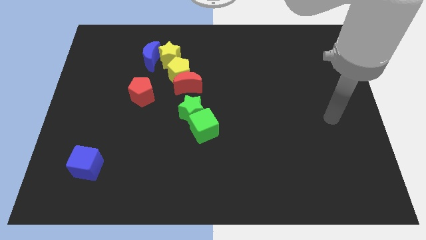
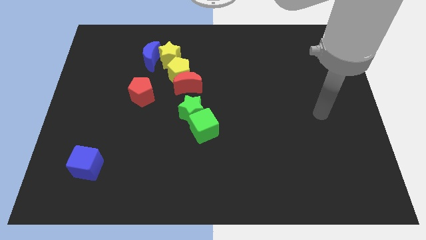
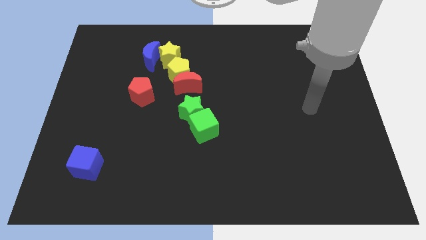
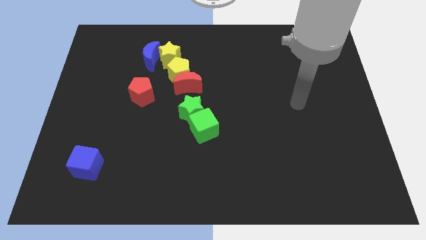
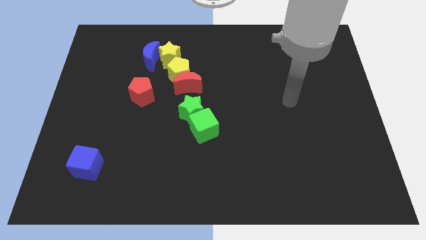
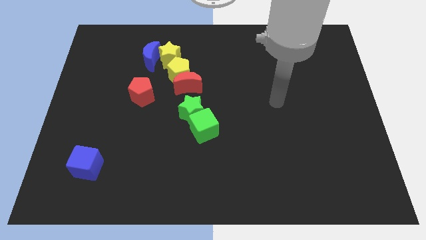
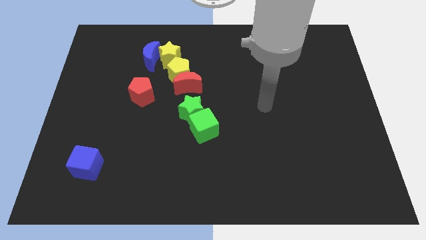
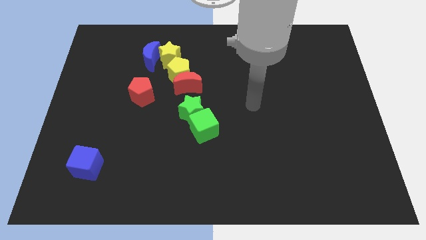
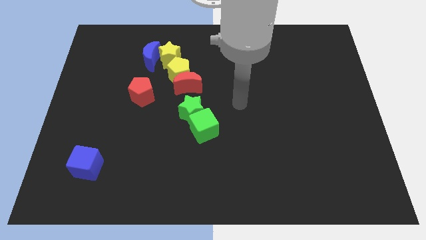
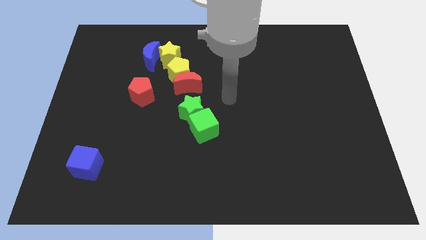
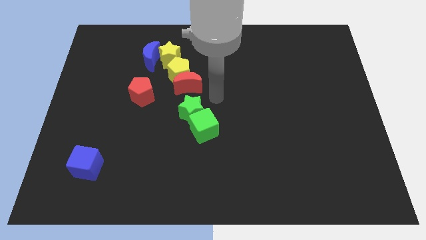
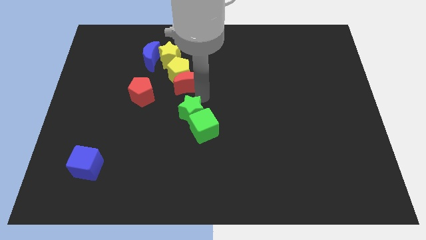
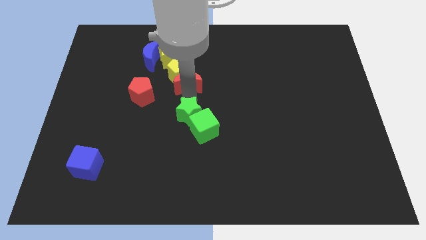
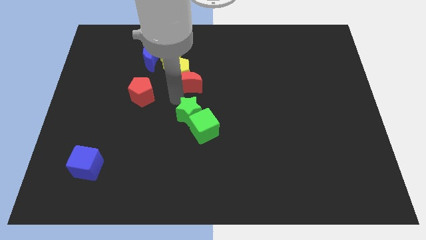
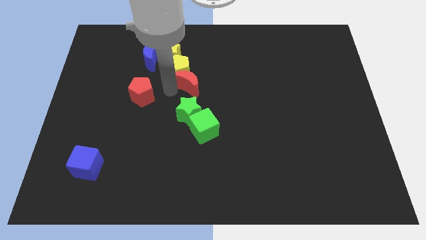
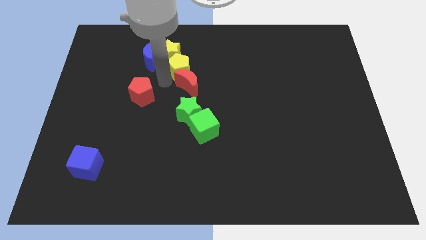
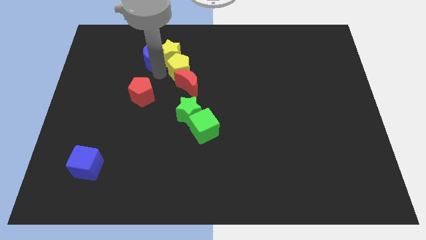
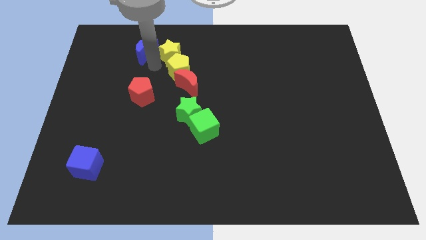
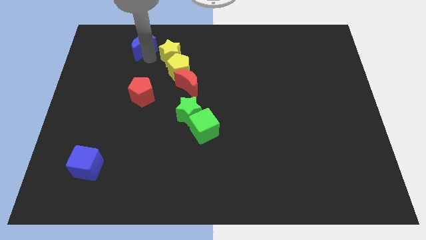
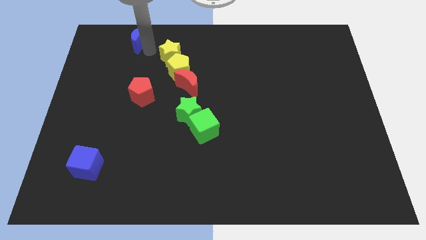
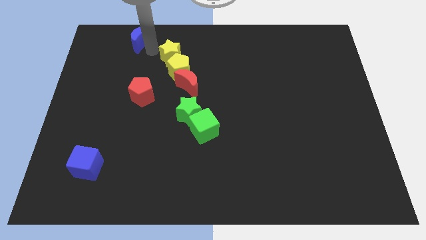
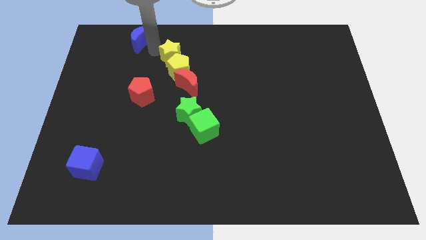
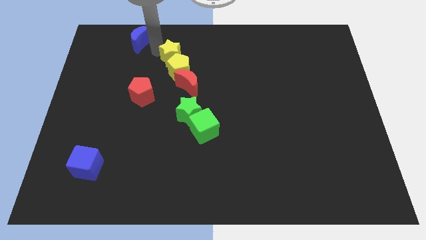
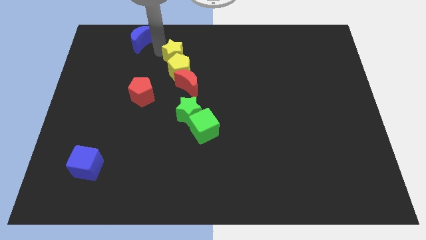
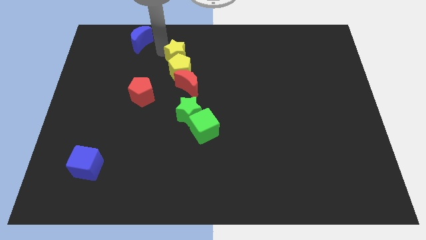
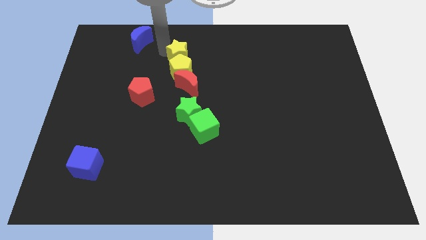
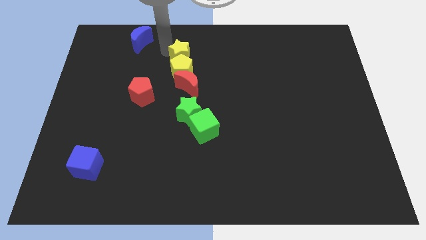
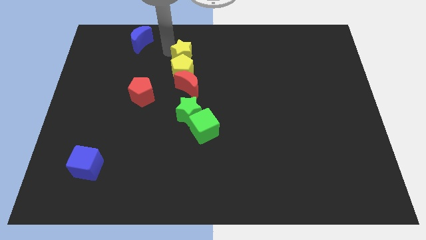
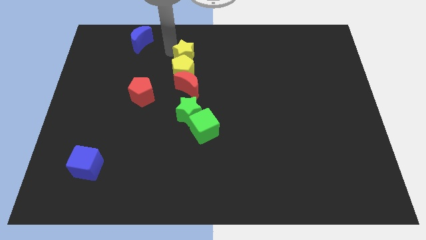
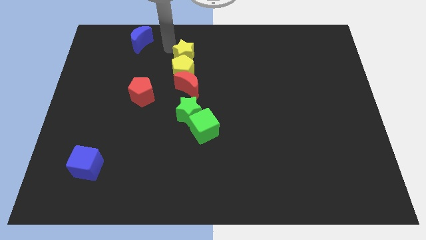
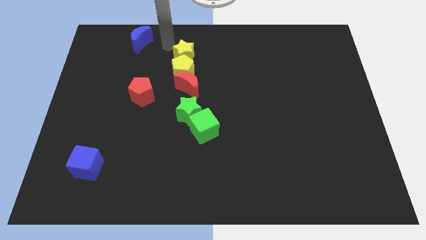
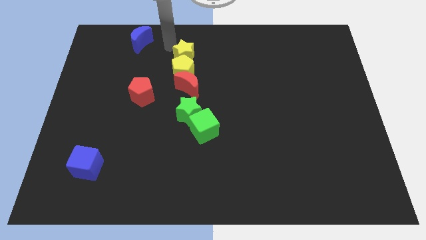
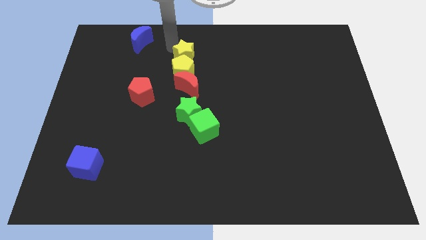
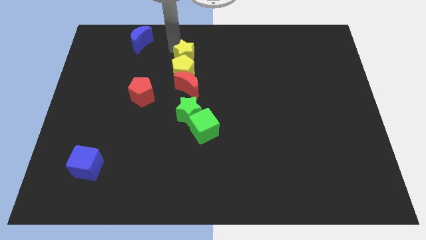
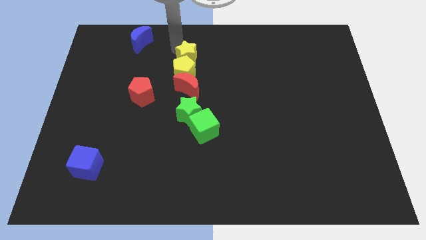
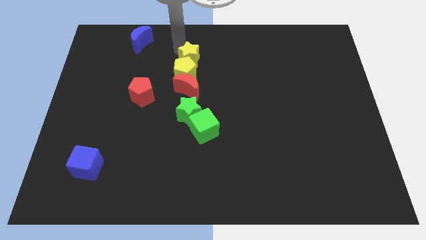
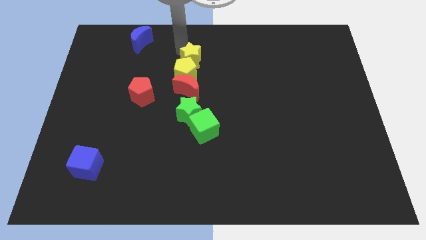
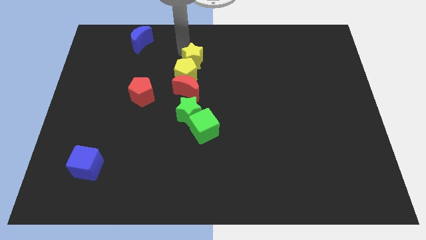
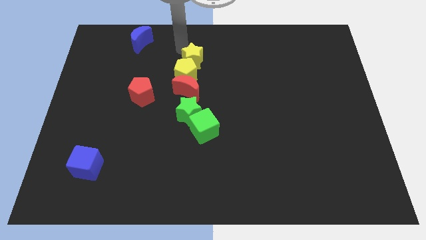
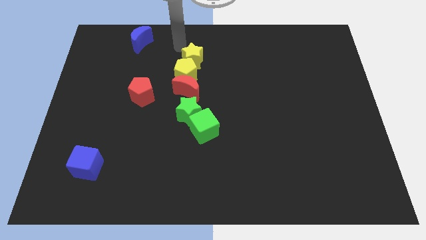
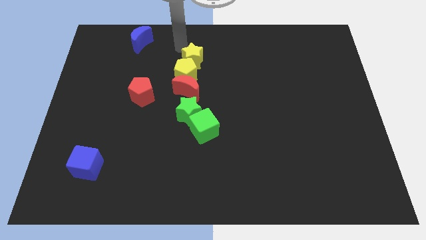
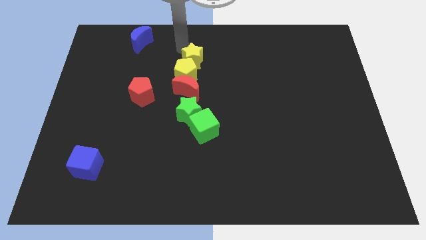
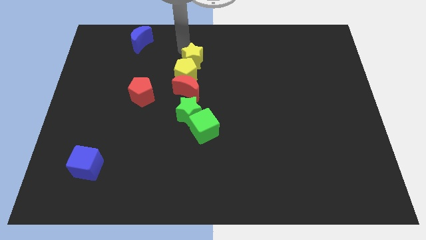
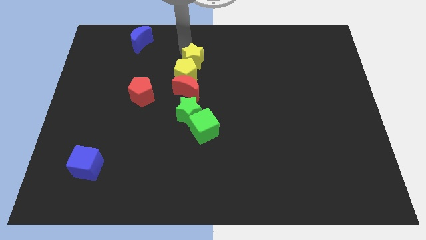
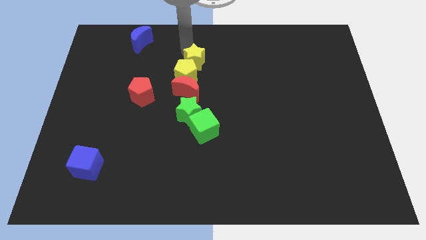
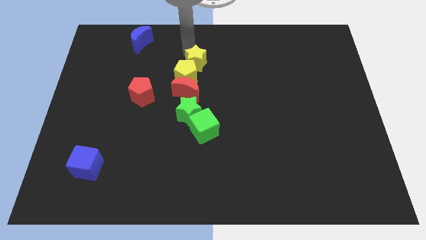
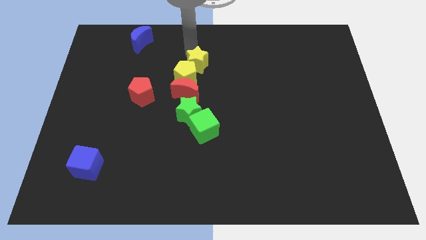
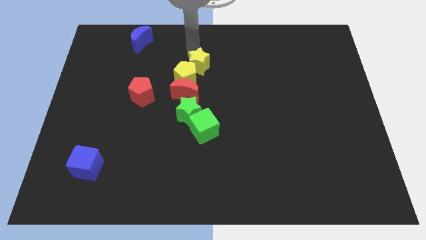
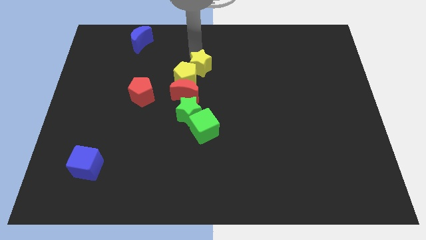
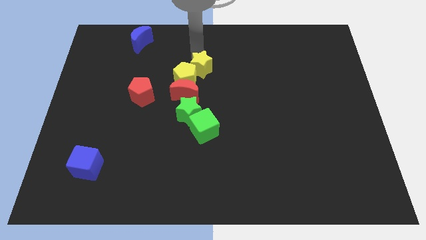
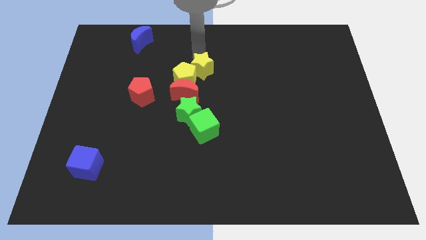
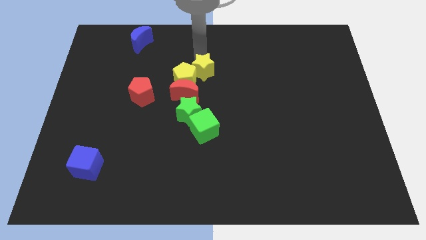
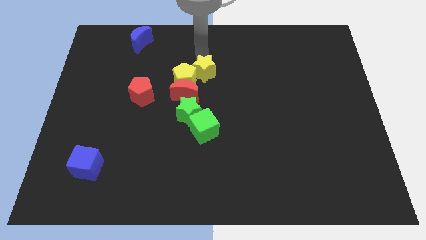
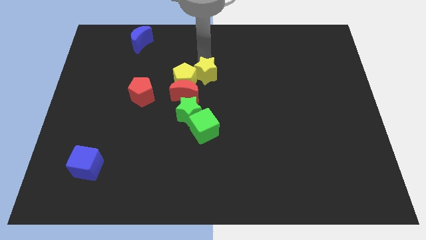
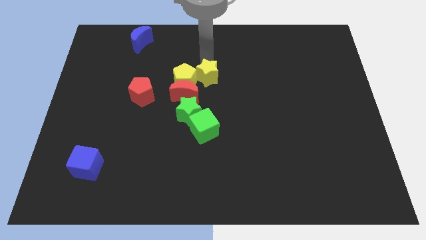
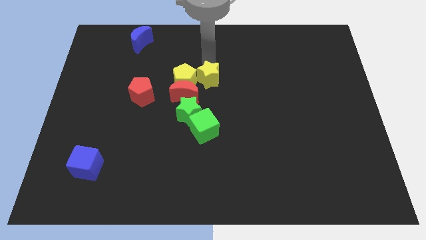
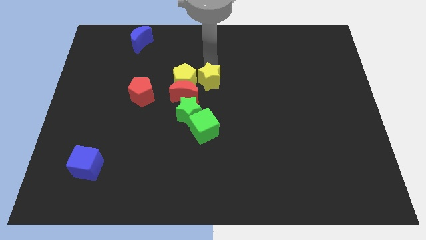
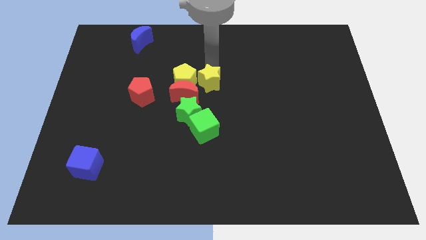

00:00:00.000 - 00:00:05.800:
move the yellow star to the top right of the green star

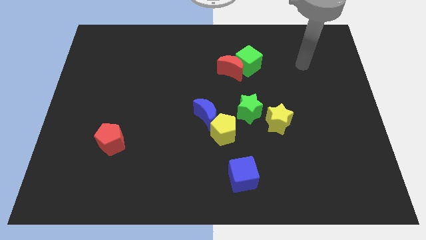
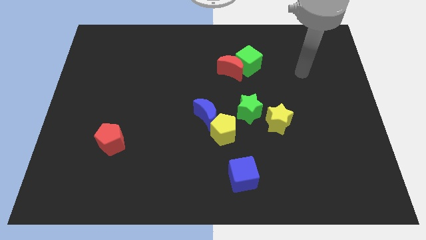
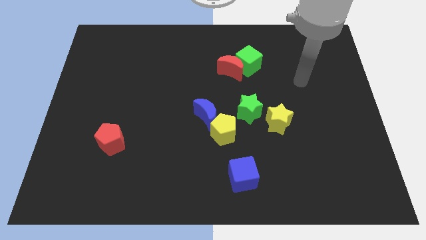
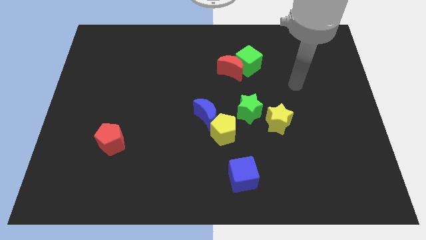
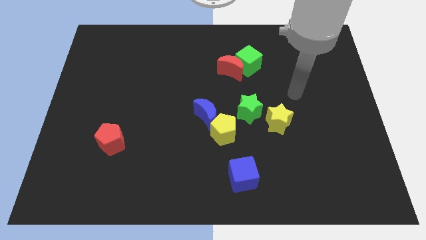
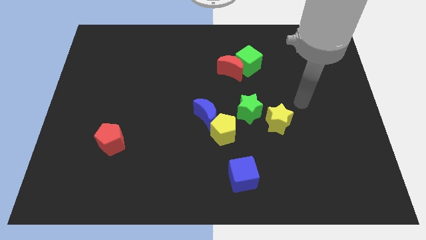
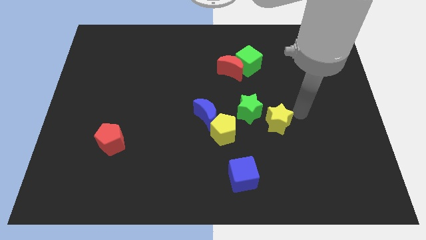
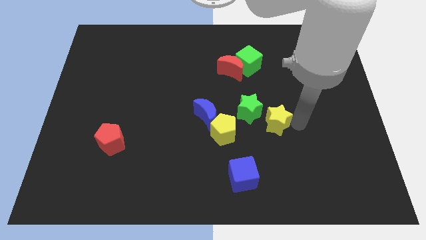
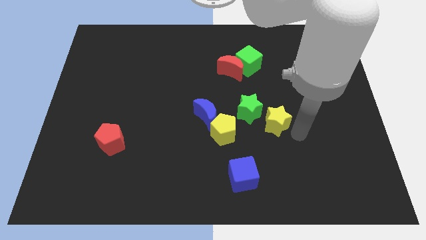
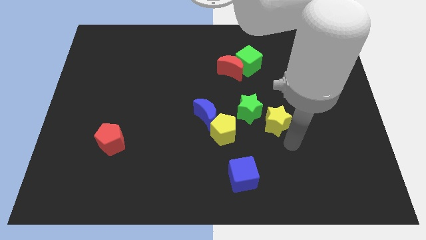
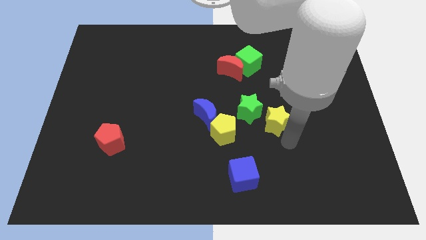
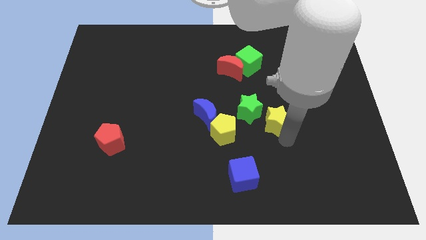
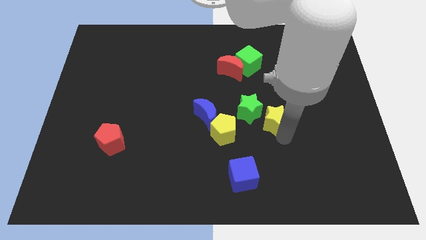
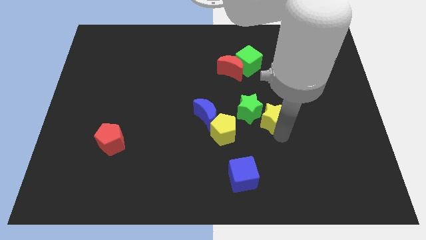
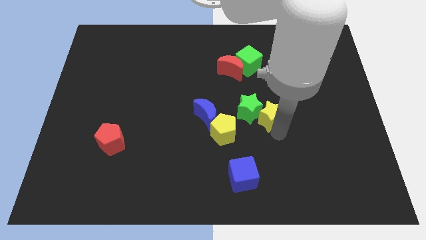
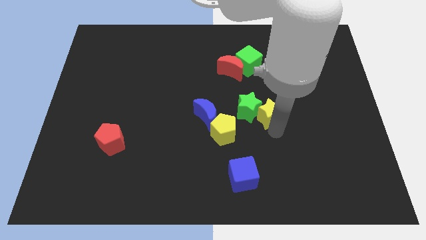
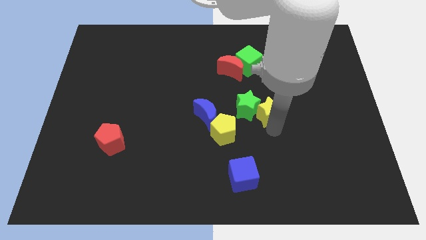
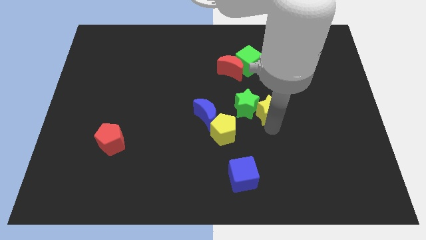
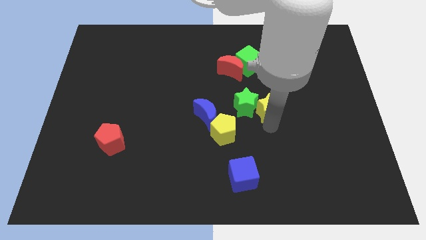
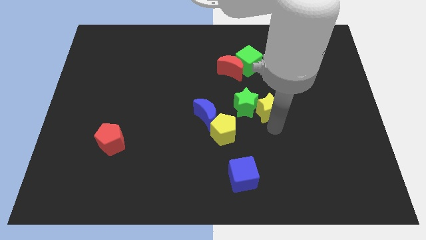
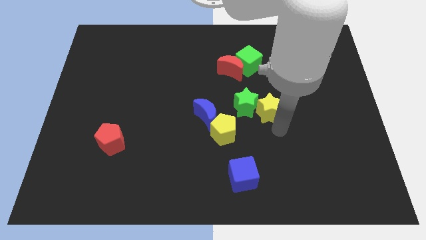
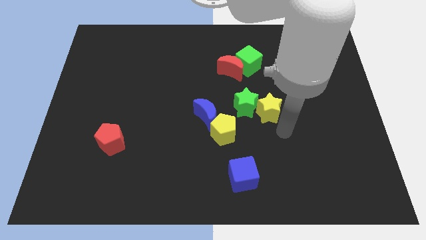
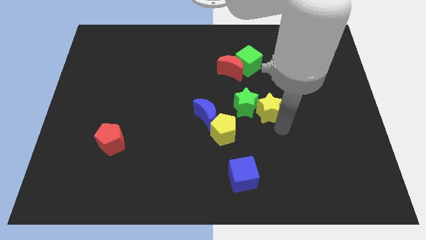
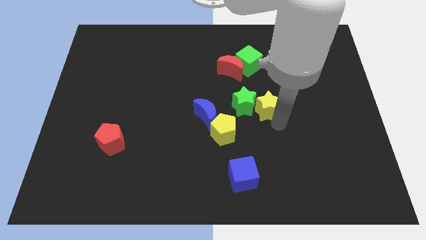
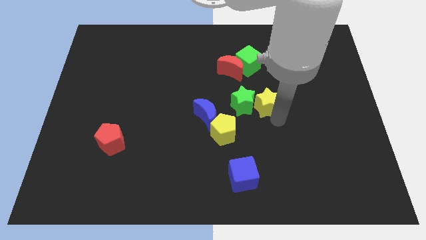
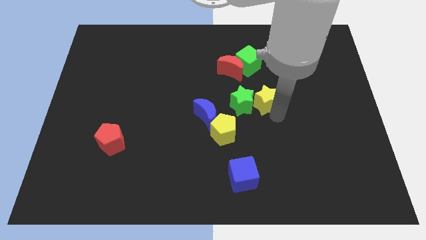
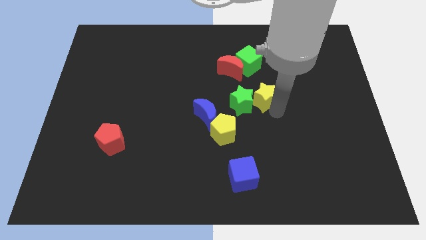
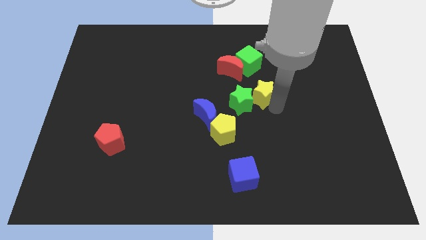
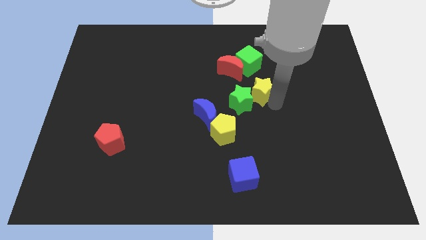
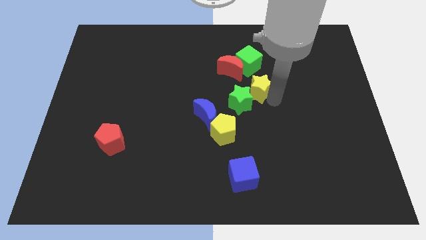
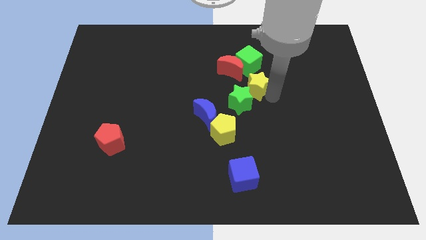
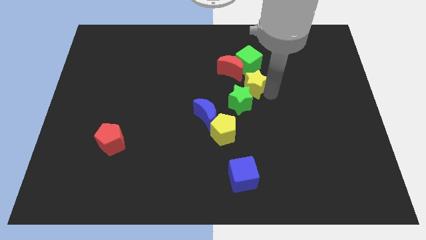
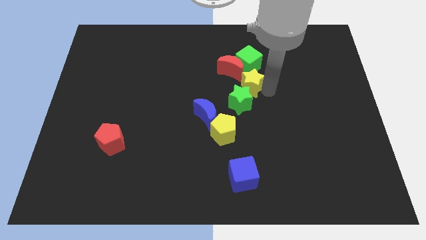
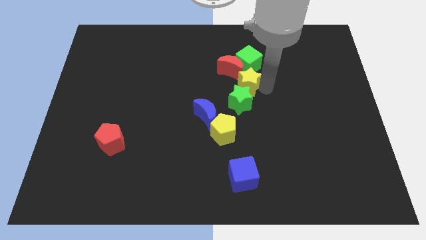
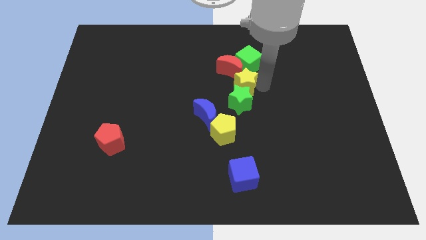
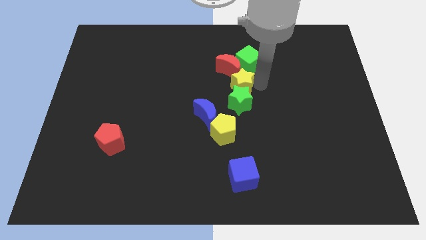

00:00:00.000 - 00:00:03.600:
put the yellow star to the top left of the green star
